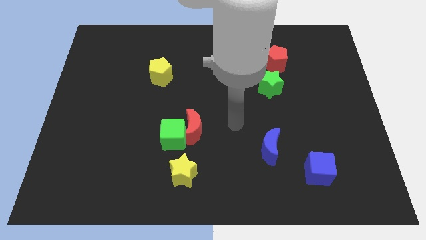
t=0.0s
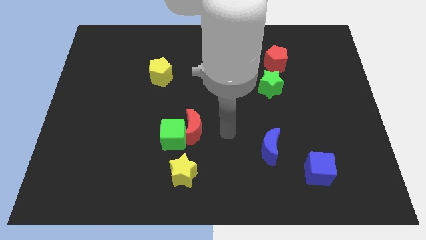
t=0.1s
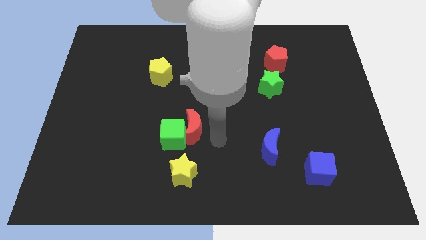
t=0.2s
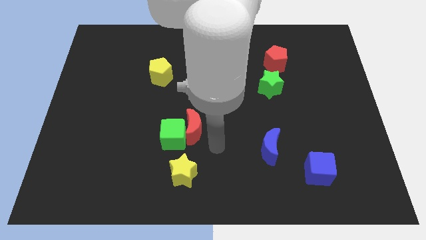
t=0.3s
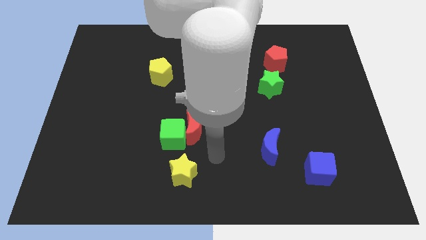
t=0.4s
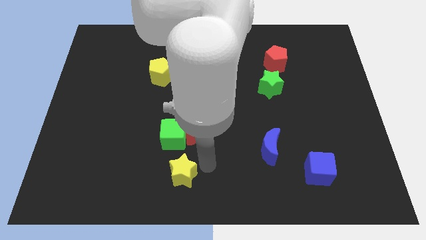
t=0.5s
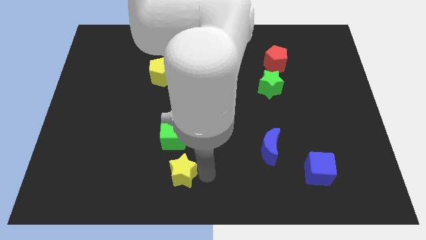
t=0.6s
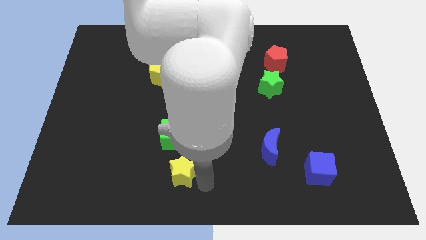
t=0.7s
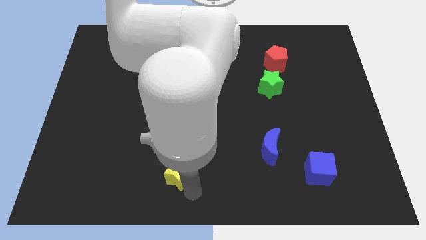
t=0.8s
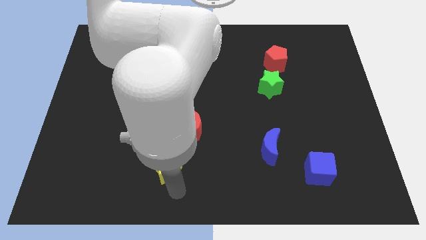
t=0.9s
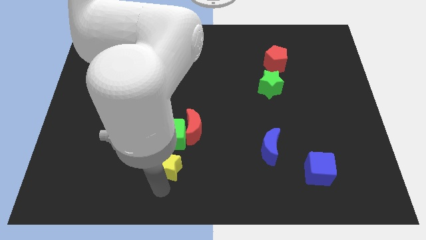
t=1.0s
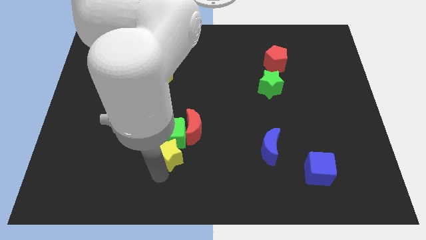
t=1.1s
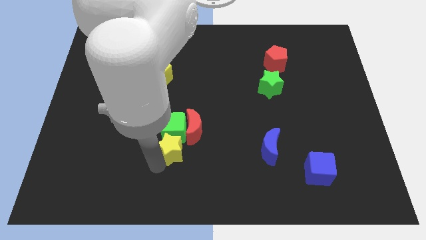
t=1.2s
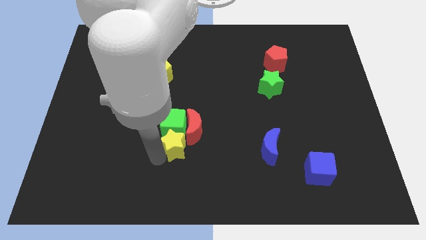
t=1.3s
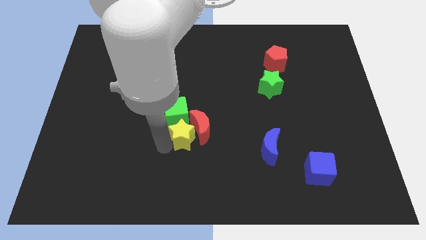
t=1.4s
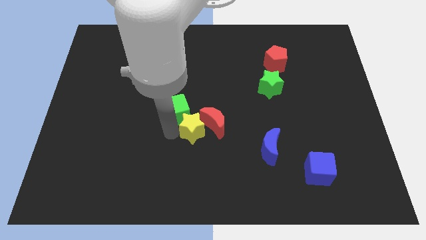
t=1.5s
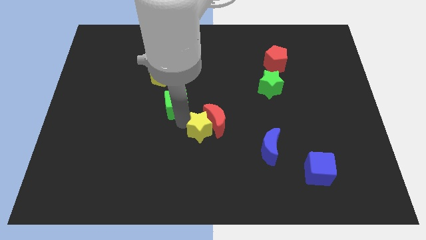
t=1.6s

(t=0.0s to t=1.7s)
separate the red moon from the green cube

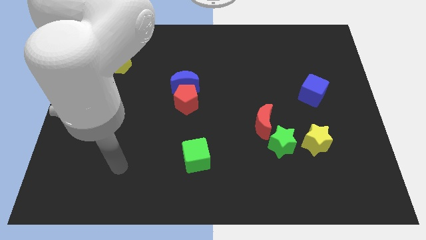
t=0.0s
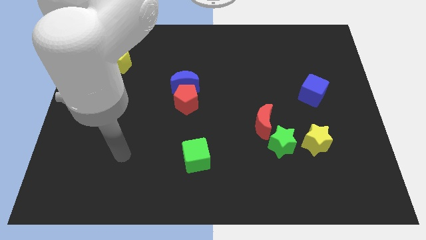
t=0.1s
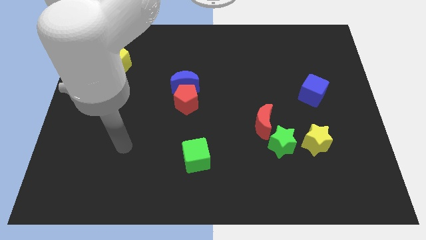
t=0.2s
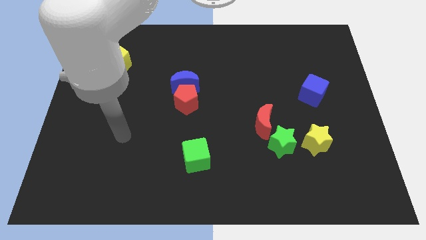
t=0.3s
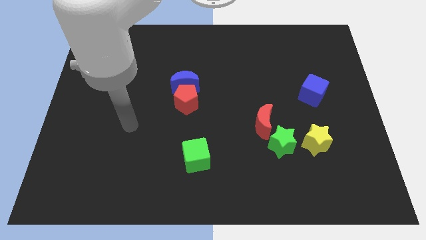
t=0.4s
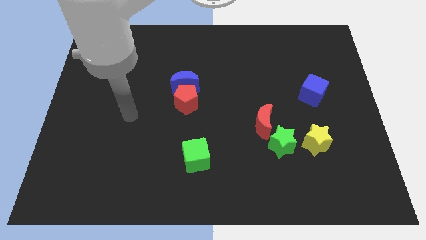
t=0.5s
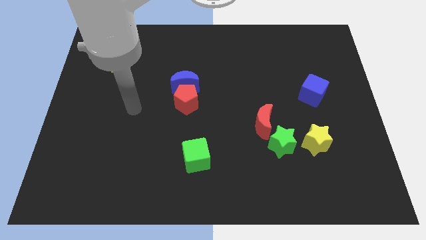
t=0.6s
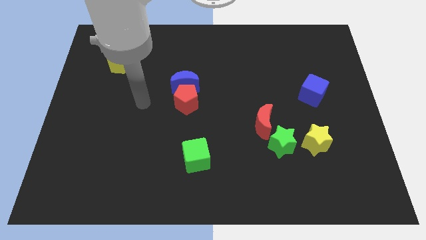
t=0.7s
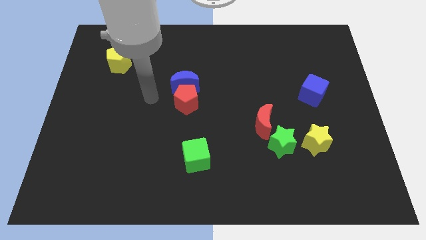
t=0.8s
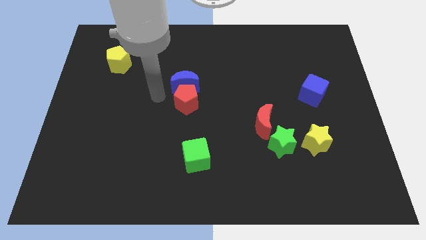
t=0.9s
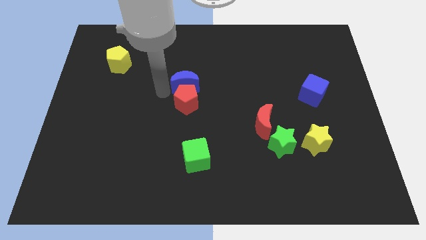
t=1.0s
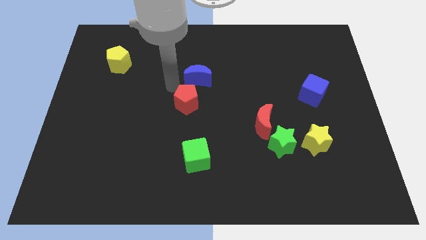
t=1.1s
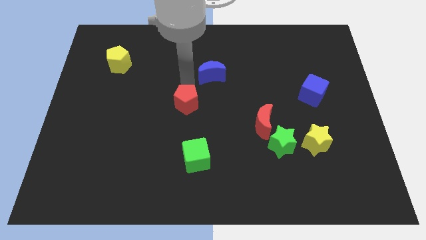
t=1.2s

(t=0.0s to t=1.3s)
move the red pentagon away from the blue moon

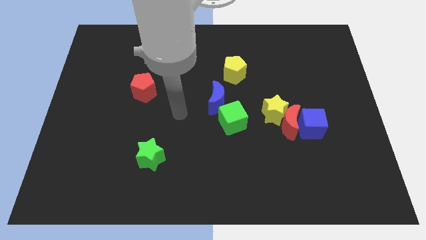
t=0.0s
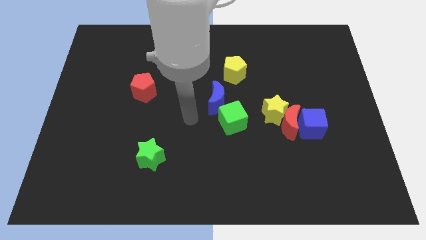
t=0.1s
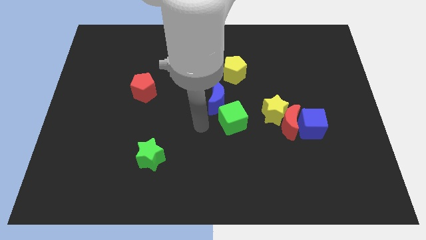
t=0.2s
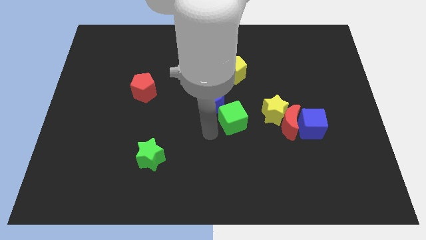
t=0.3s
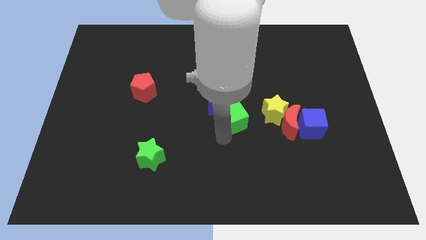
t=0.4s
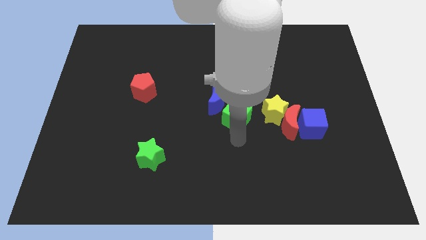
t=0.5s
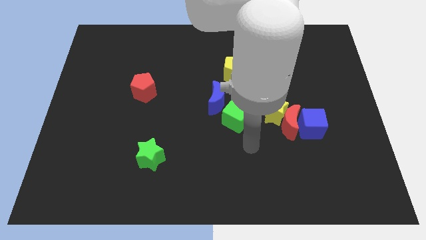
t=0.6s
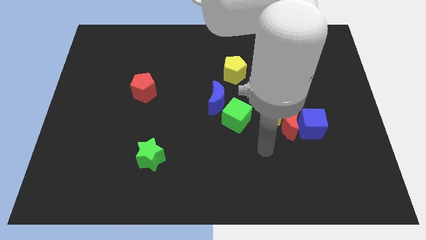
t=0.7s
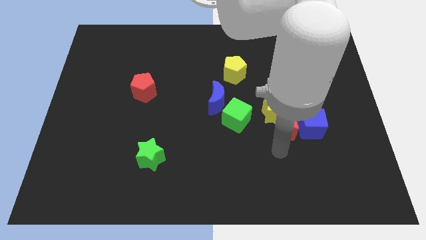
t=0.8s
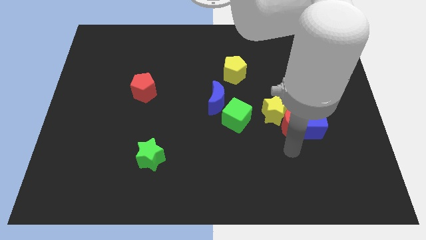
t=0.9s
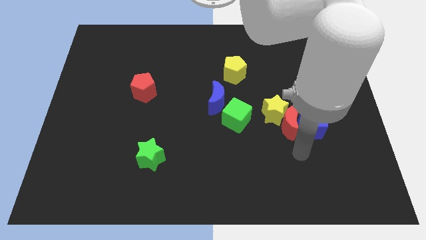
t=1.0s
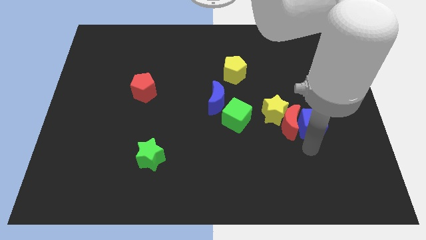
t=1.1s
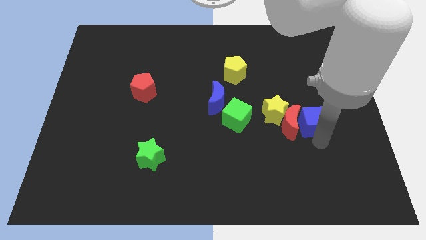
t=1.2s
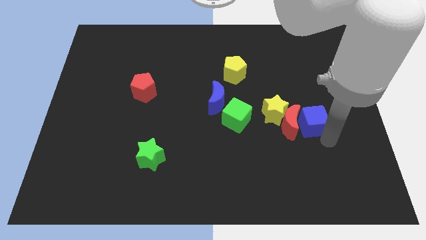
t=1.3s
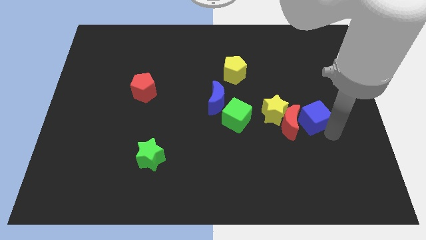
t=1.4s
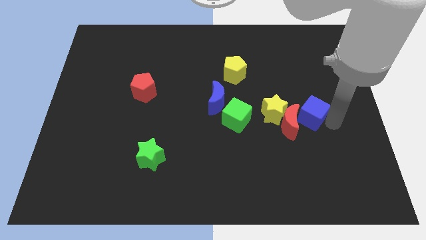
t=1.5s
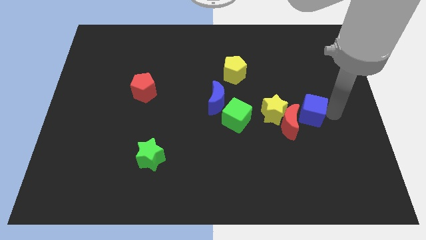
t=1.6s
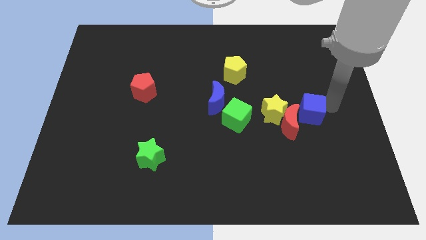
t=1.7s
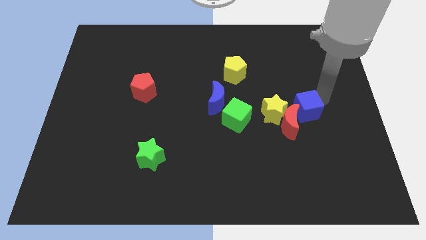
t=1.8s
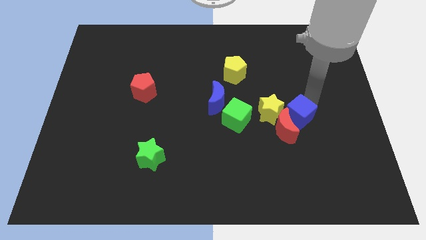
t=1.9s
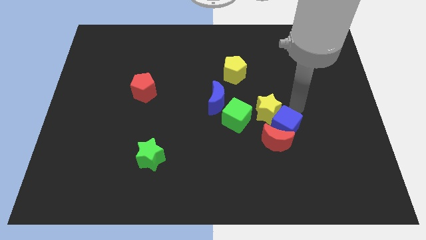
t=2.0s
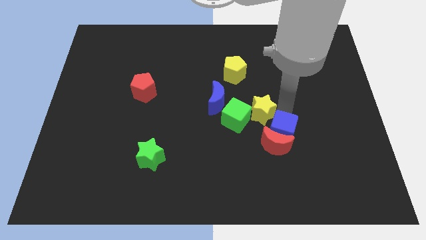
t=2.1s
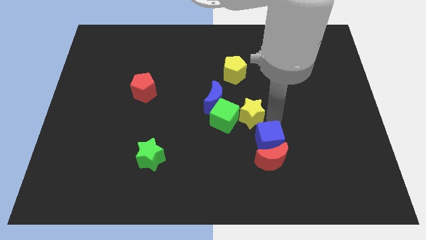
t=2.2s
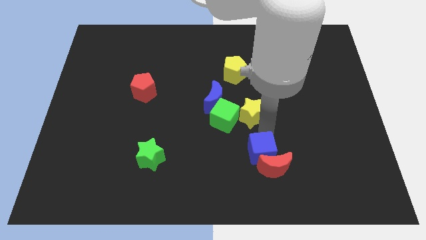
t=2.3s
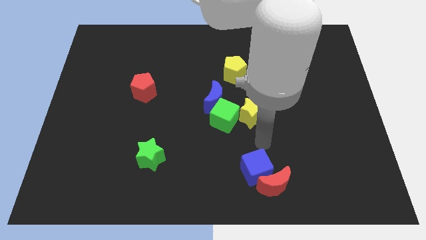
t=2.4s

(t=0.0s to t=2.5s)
separate the red moon from the yellow star and blue cube

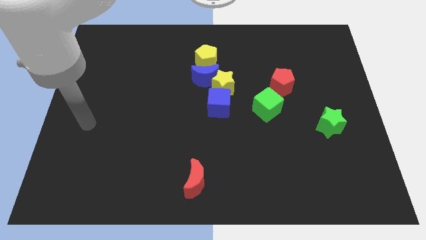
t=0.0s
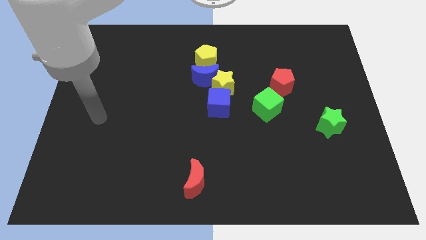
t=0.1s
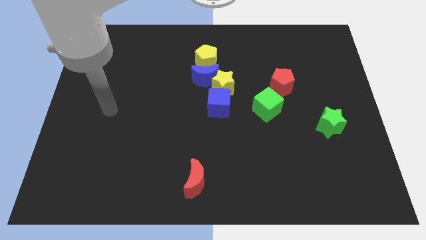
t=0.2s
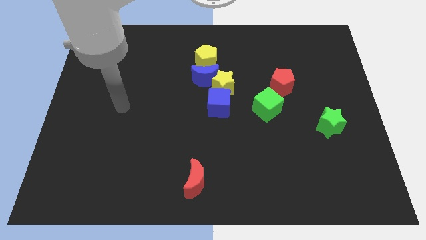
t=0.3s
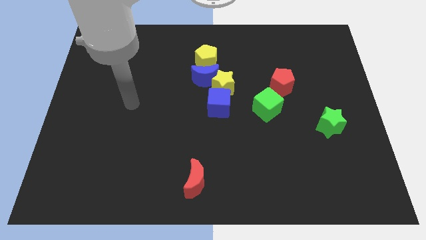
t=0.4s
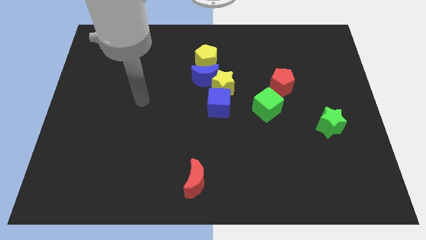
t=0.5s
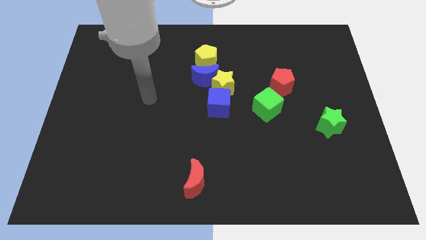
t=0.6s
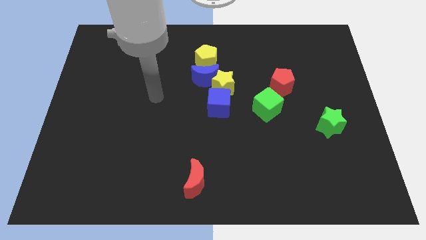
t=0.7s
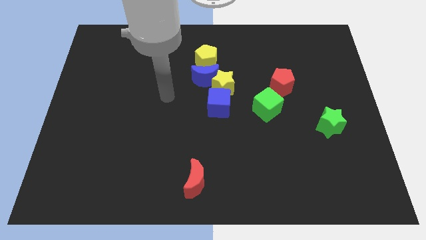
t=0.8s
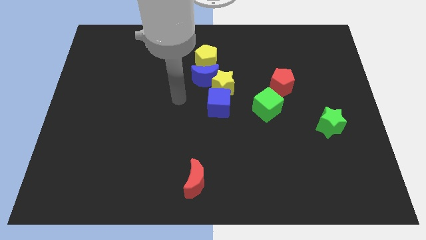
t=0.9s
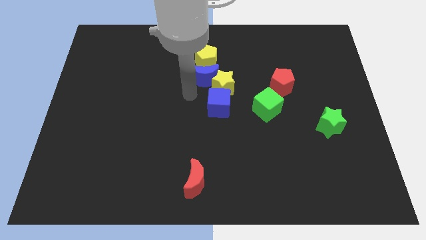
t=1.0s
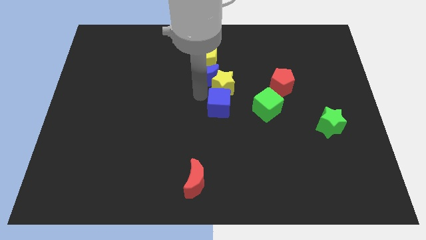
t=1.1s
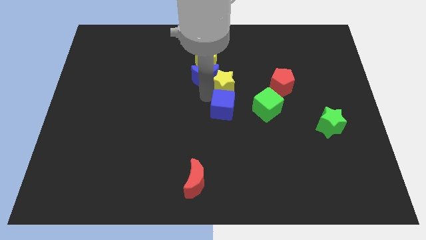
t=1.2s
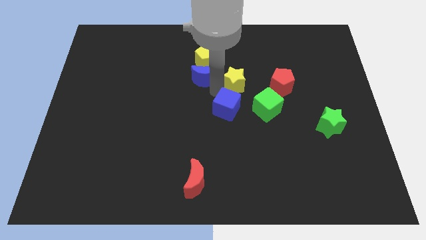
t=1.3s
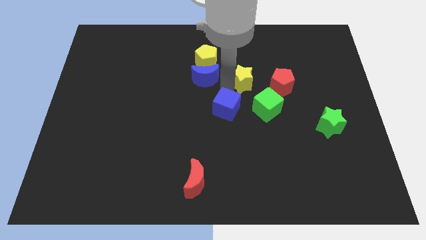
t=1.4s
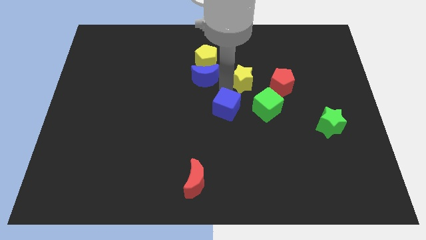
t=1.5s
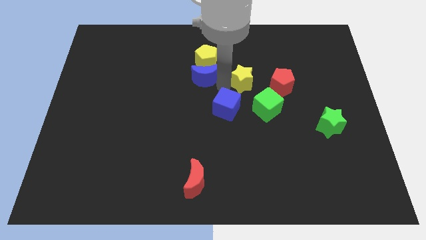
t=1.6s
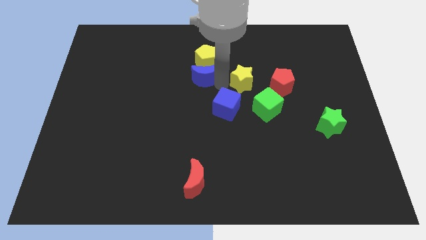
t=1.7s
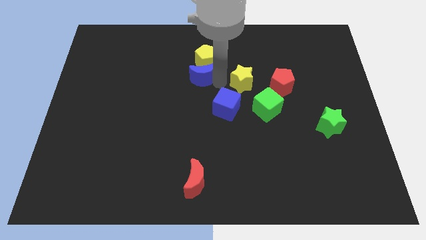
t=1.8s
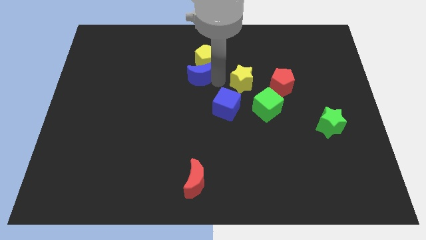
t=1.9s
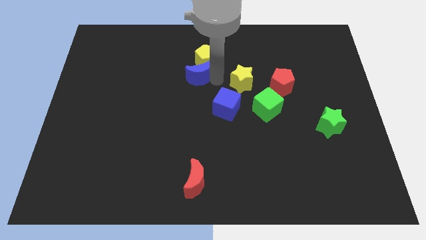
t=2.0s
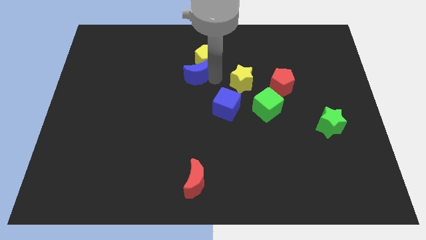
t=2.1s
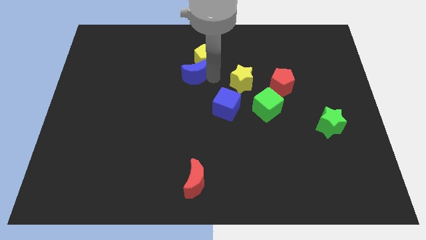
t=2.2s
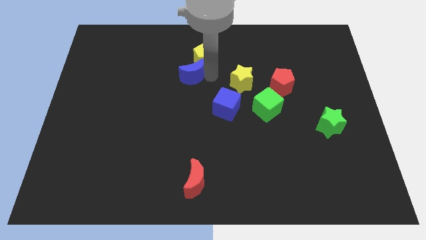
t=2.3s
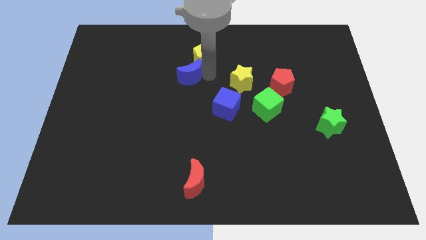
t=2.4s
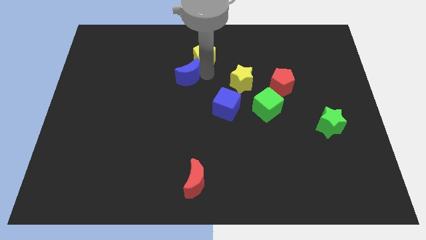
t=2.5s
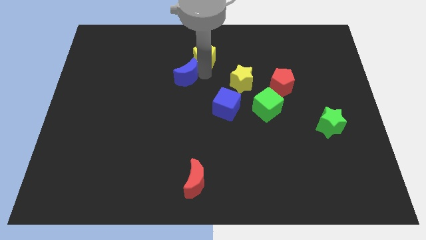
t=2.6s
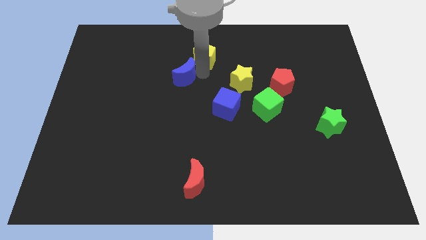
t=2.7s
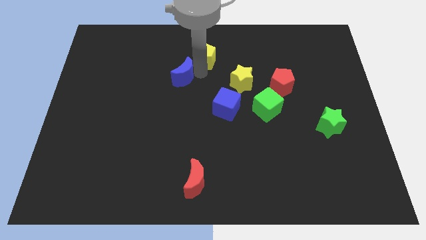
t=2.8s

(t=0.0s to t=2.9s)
pull the blue moon apart from the group of blocks

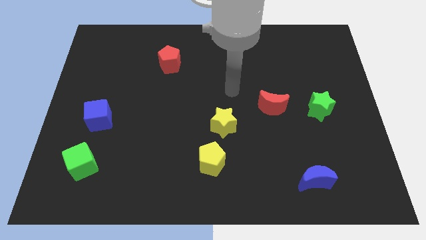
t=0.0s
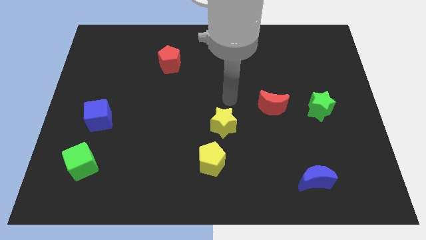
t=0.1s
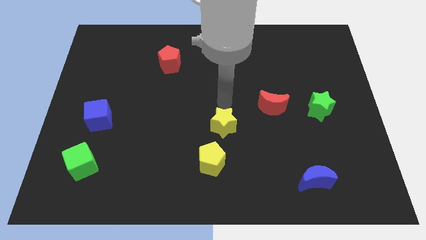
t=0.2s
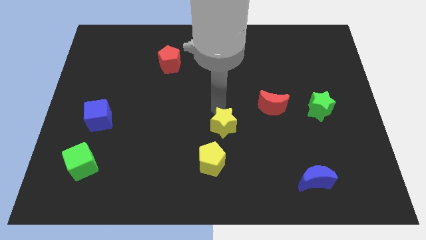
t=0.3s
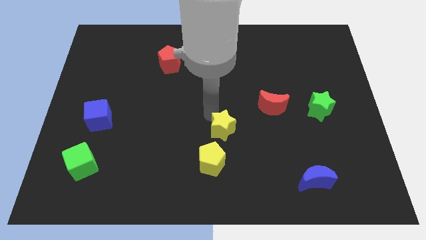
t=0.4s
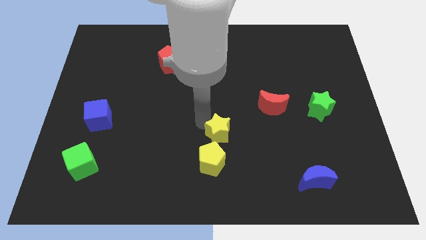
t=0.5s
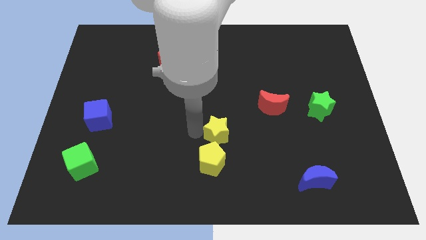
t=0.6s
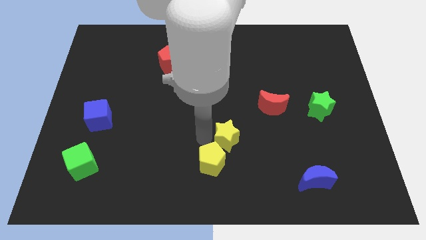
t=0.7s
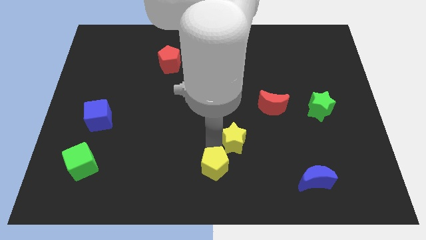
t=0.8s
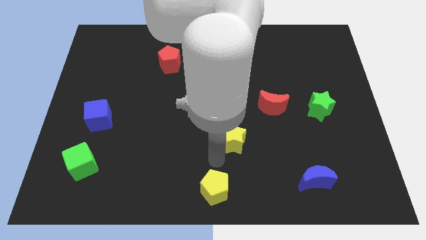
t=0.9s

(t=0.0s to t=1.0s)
pull the yellow star apart from the yellow pentagon
